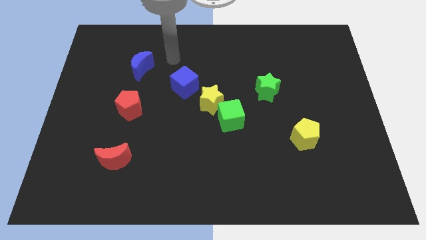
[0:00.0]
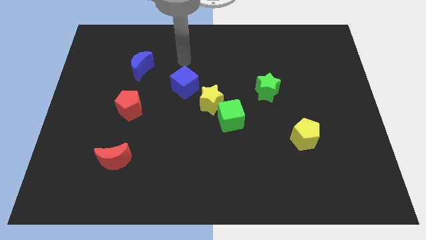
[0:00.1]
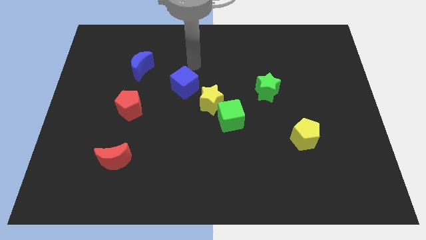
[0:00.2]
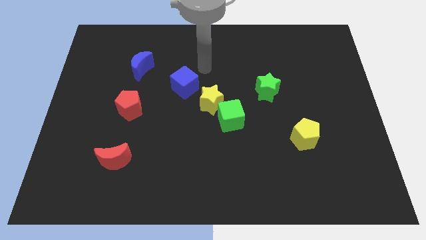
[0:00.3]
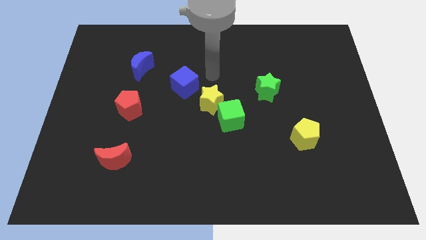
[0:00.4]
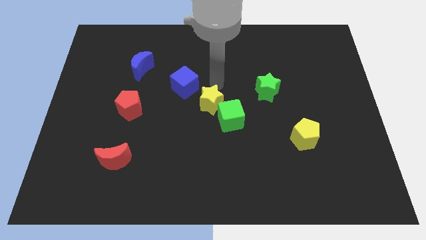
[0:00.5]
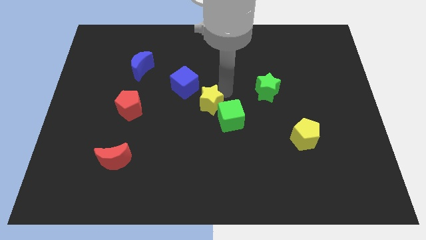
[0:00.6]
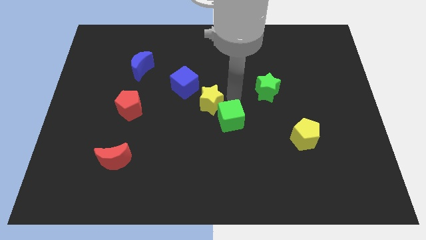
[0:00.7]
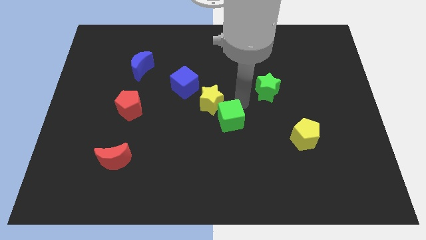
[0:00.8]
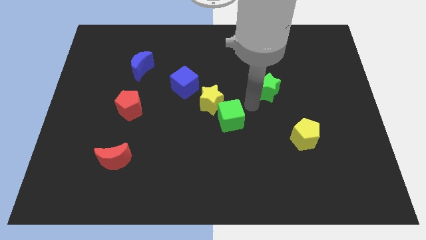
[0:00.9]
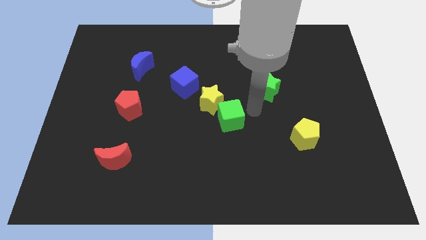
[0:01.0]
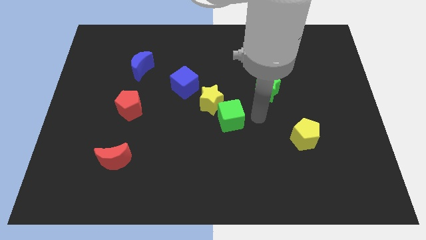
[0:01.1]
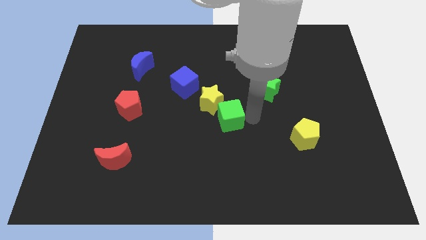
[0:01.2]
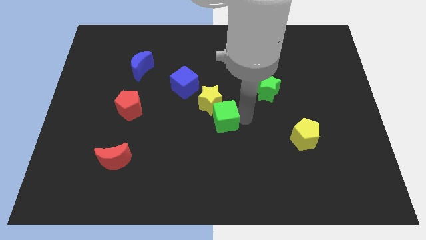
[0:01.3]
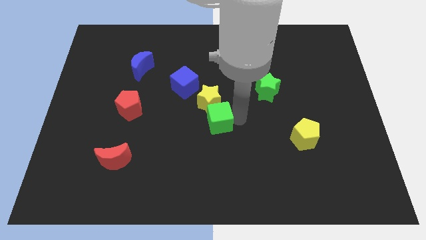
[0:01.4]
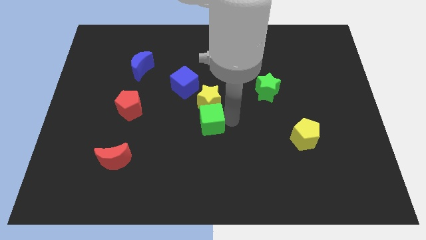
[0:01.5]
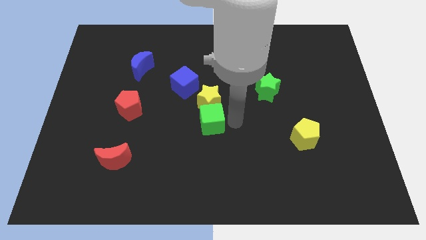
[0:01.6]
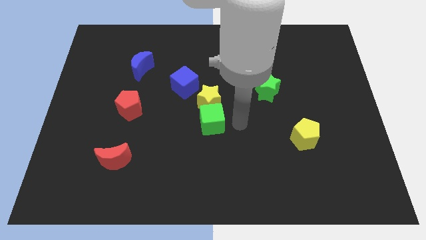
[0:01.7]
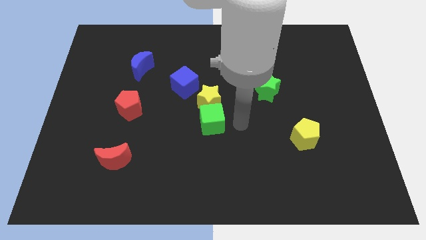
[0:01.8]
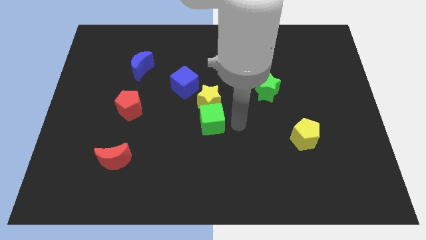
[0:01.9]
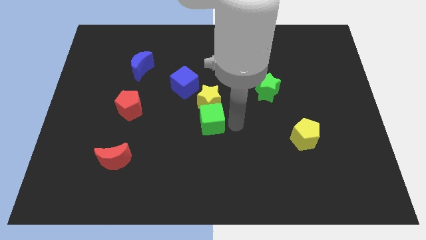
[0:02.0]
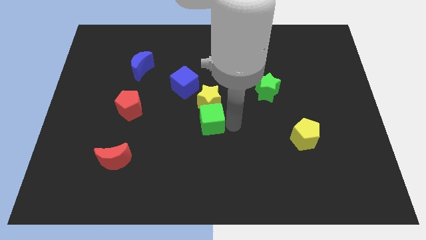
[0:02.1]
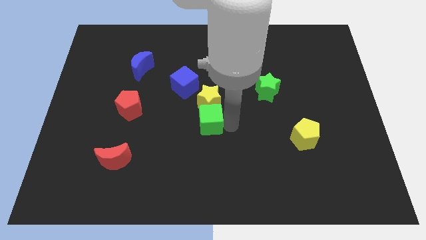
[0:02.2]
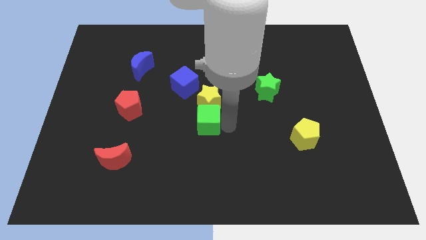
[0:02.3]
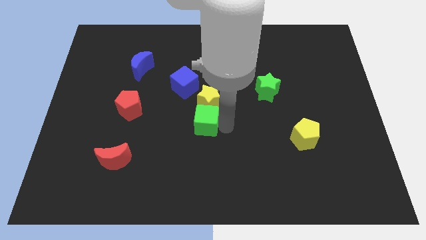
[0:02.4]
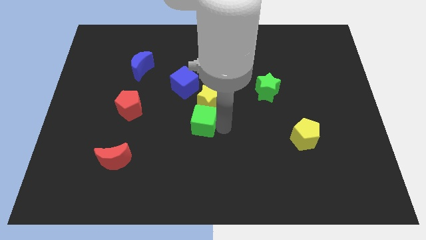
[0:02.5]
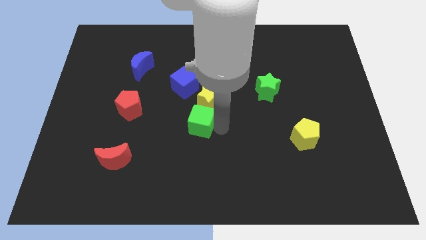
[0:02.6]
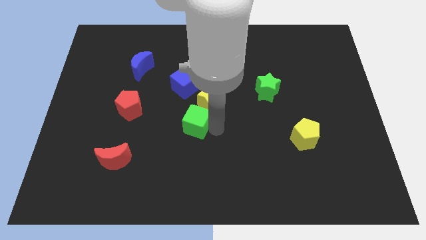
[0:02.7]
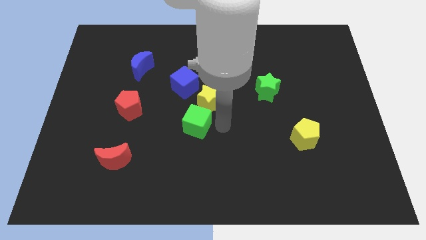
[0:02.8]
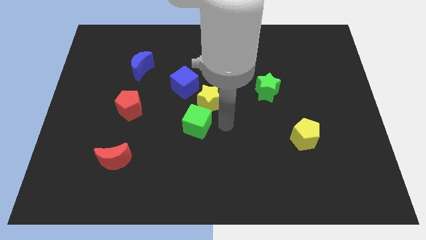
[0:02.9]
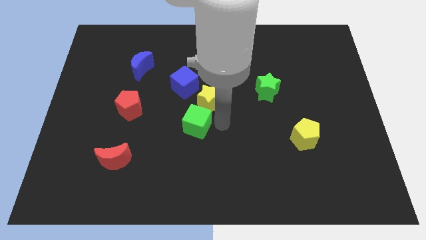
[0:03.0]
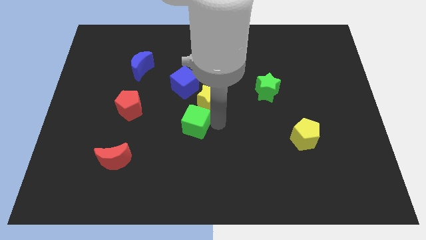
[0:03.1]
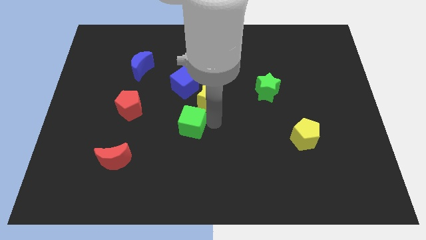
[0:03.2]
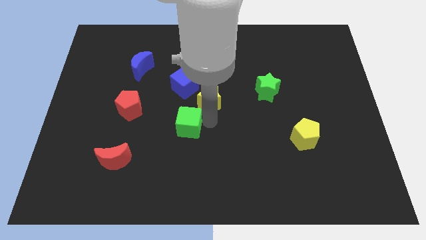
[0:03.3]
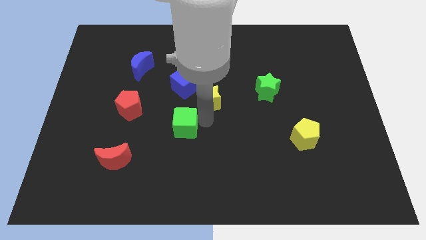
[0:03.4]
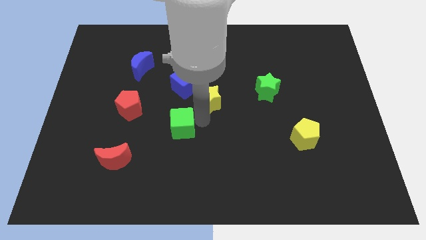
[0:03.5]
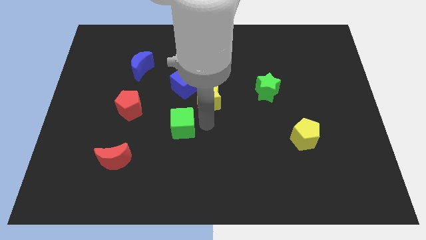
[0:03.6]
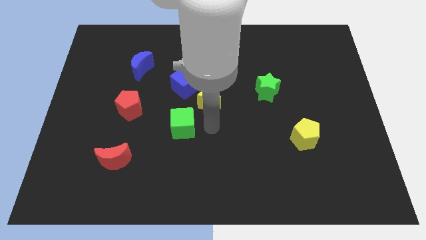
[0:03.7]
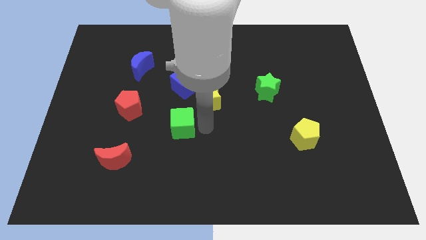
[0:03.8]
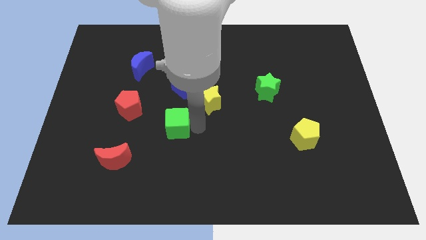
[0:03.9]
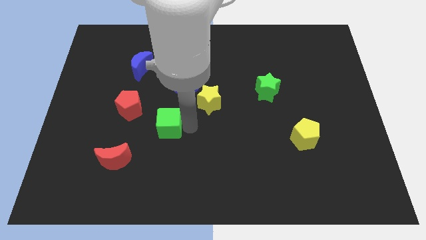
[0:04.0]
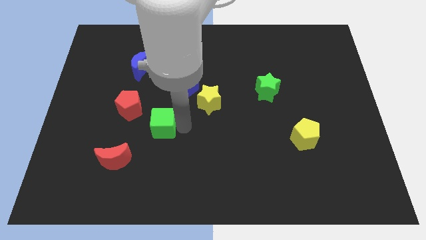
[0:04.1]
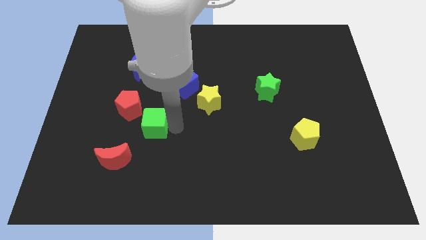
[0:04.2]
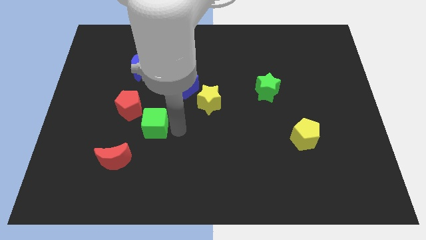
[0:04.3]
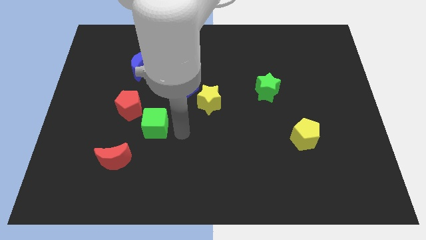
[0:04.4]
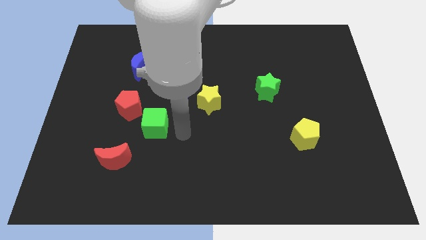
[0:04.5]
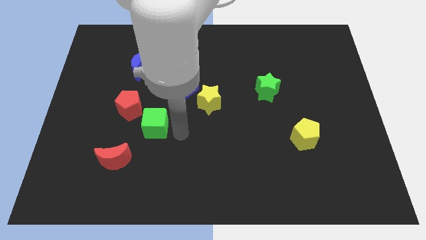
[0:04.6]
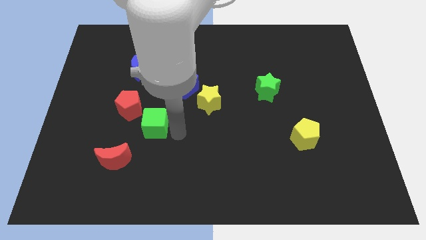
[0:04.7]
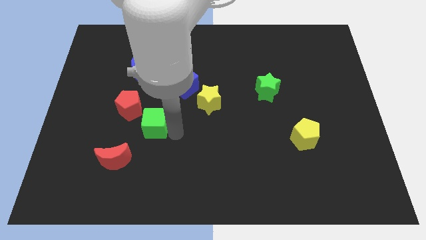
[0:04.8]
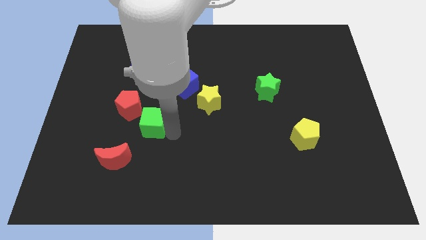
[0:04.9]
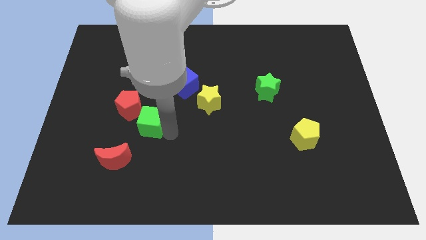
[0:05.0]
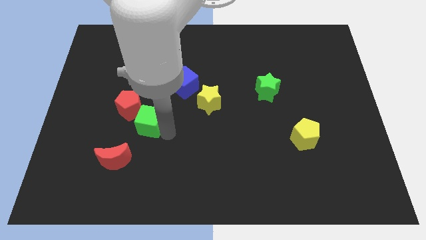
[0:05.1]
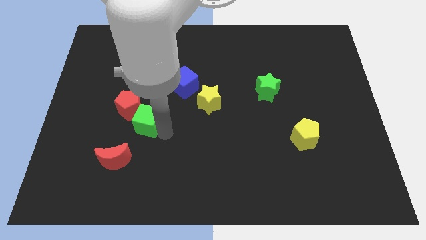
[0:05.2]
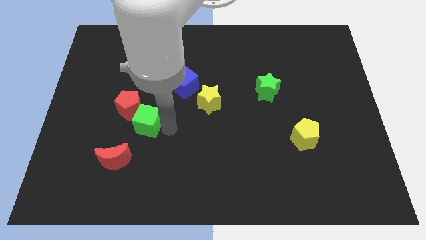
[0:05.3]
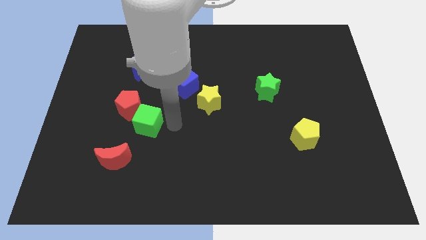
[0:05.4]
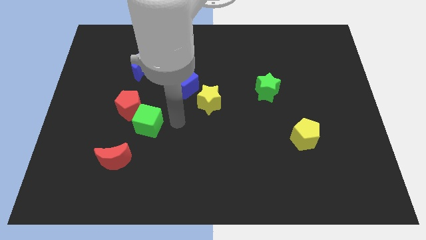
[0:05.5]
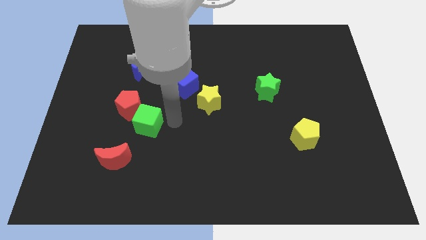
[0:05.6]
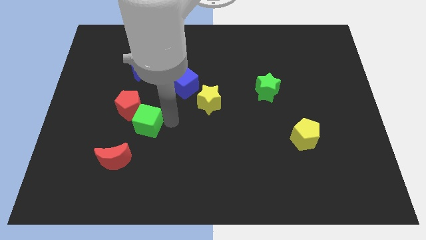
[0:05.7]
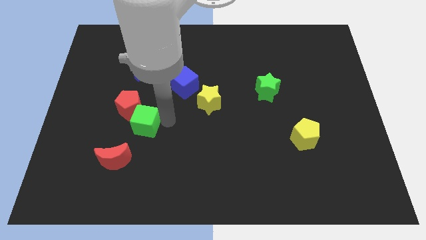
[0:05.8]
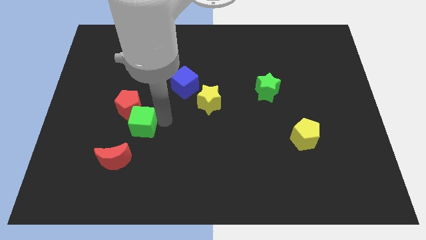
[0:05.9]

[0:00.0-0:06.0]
slide the green cube left

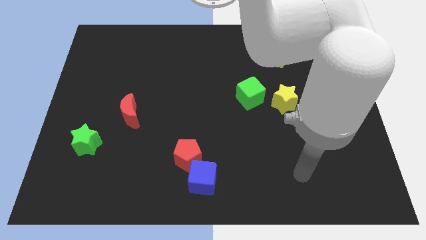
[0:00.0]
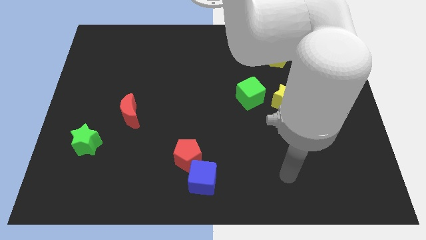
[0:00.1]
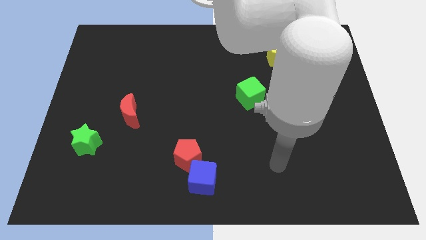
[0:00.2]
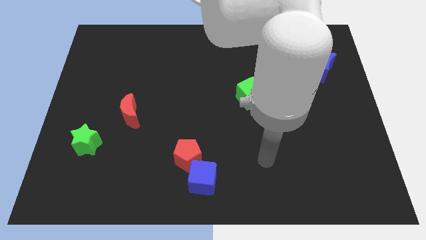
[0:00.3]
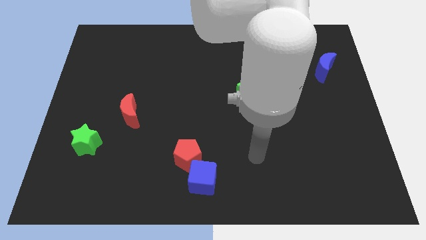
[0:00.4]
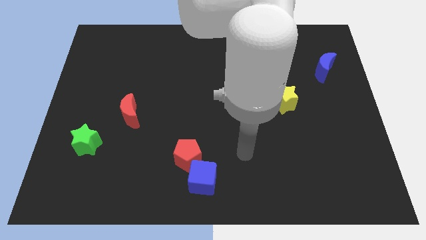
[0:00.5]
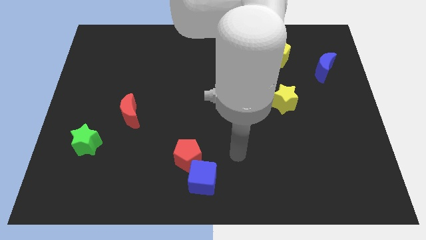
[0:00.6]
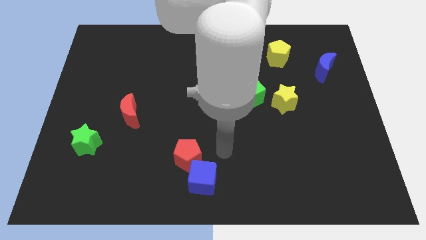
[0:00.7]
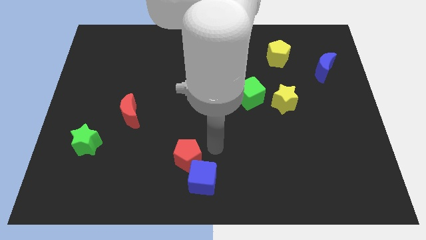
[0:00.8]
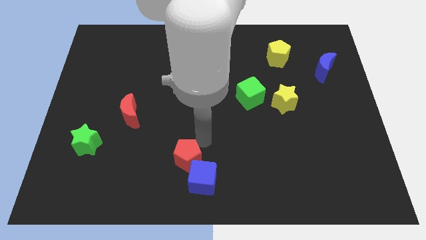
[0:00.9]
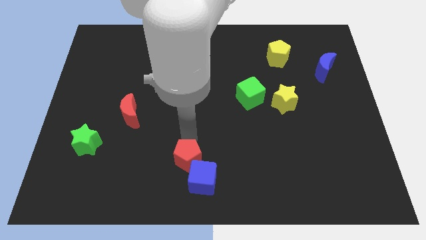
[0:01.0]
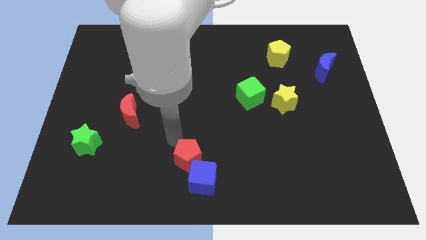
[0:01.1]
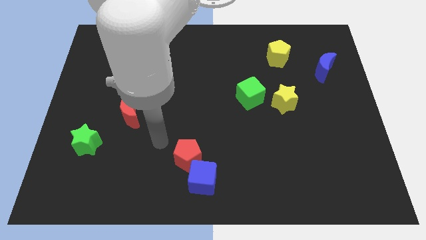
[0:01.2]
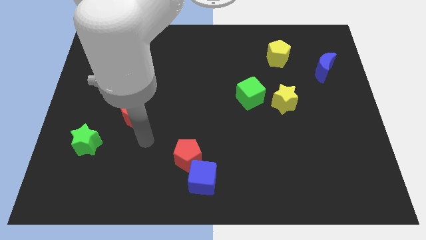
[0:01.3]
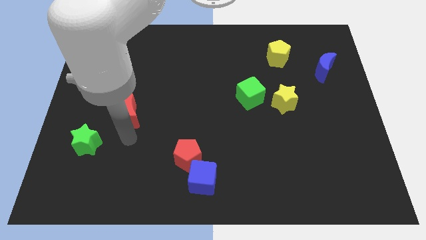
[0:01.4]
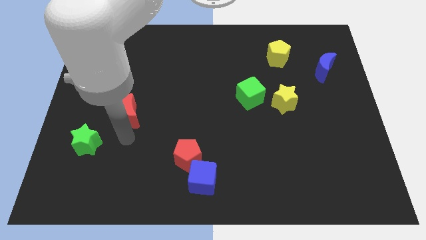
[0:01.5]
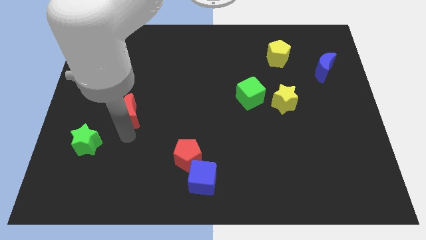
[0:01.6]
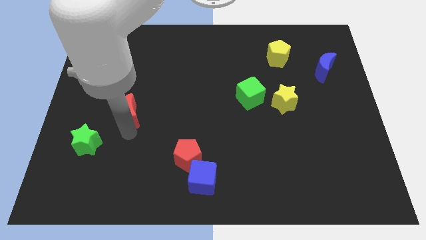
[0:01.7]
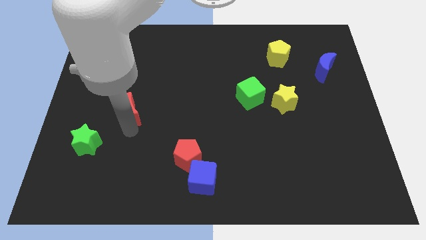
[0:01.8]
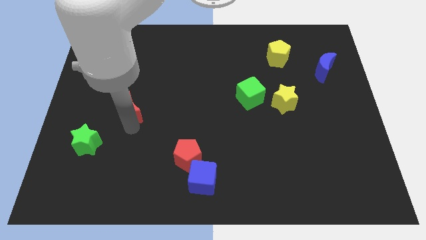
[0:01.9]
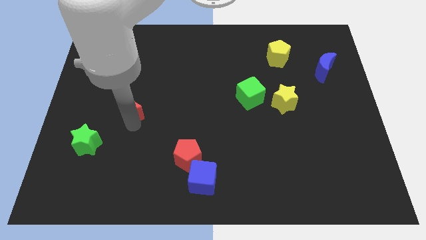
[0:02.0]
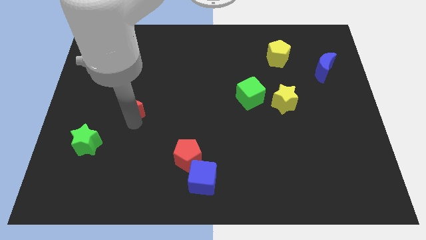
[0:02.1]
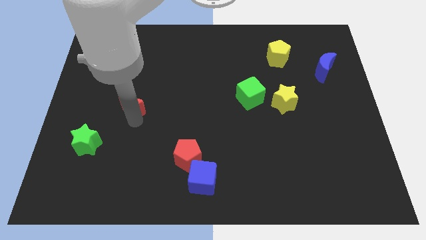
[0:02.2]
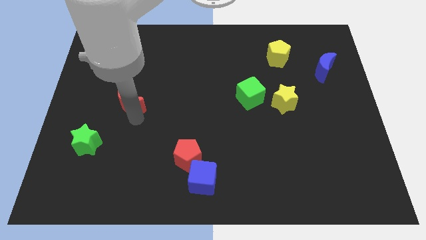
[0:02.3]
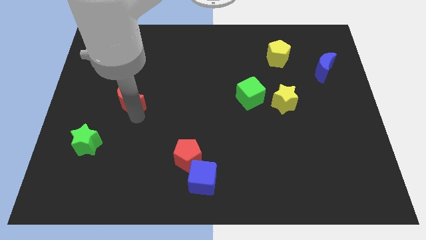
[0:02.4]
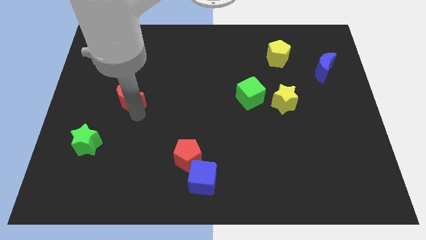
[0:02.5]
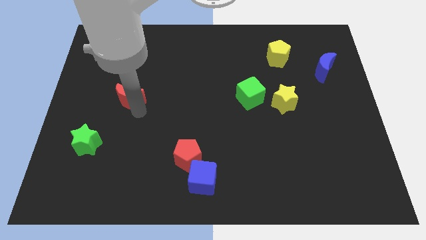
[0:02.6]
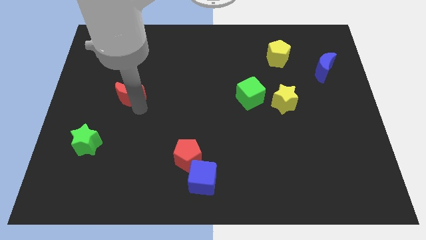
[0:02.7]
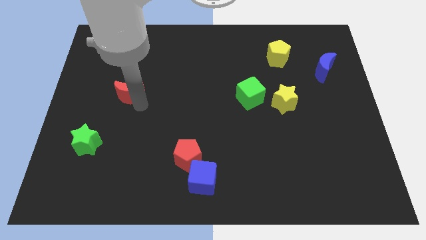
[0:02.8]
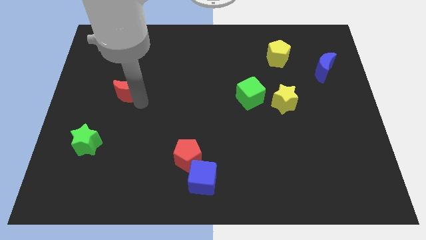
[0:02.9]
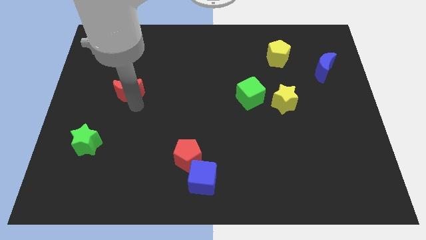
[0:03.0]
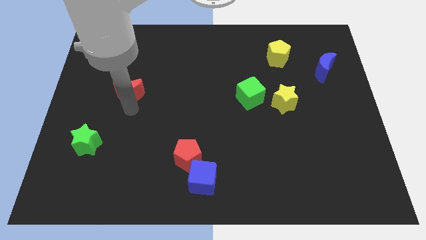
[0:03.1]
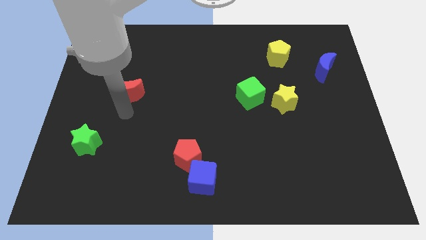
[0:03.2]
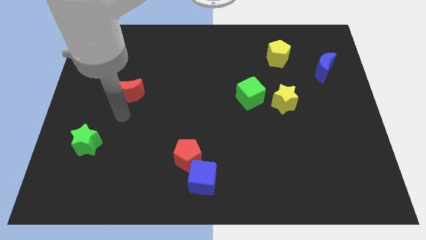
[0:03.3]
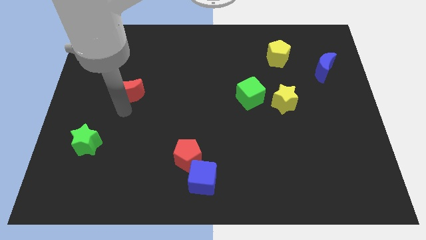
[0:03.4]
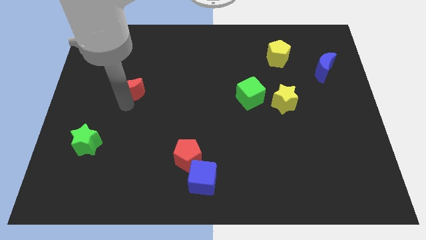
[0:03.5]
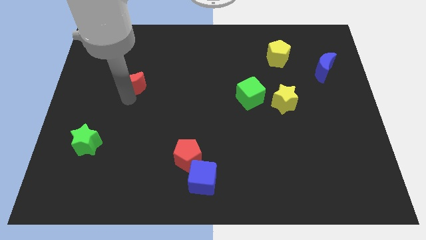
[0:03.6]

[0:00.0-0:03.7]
slide the red moon a little bit upwards
